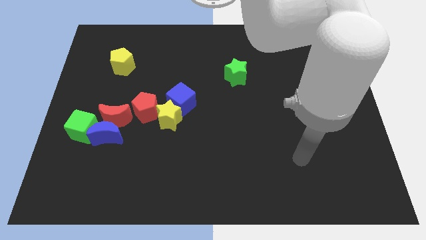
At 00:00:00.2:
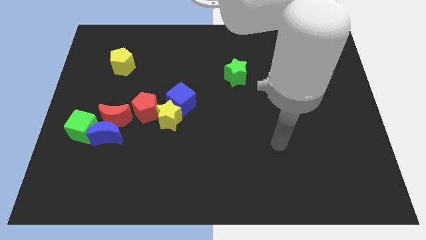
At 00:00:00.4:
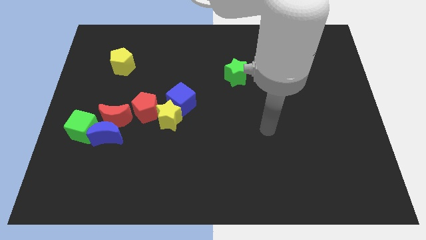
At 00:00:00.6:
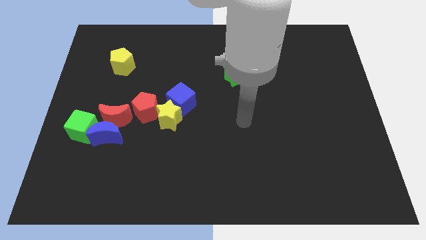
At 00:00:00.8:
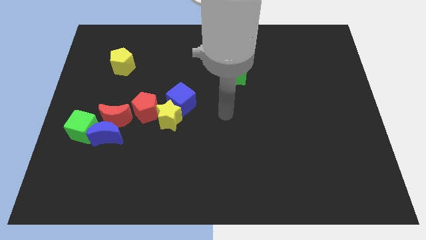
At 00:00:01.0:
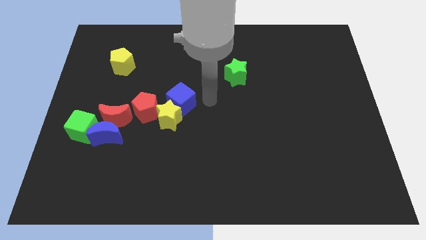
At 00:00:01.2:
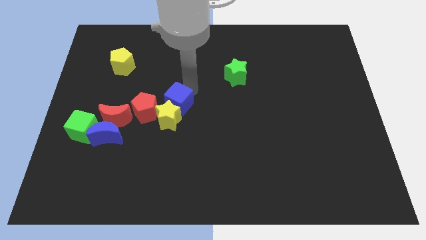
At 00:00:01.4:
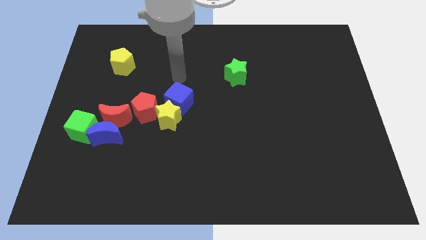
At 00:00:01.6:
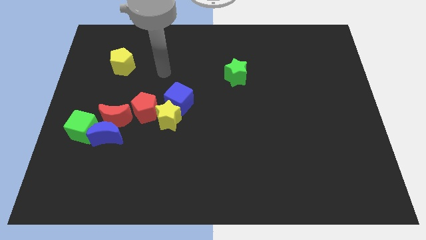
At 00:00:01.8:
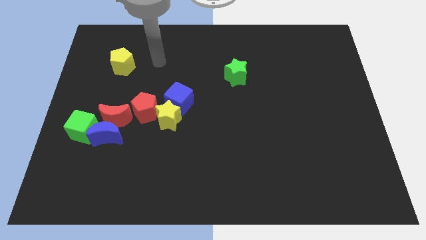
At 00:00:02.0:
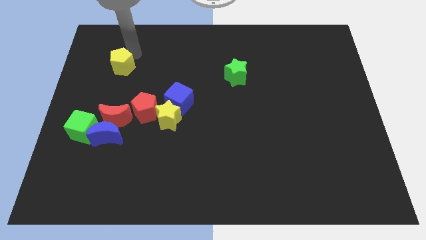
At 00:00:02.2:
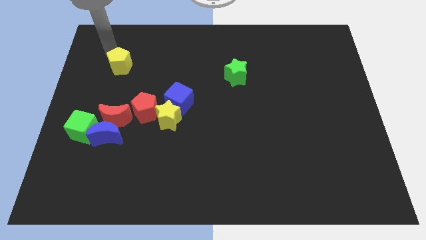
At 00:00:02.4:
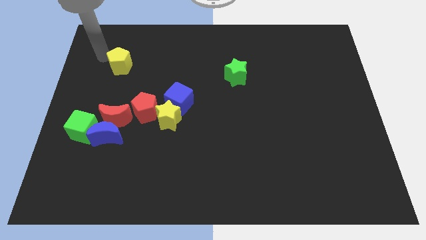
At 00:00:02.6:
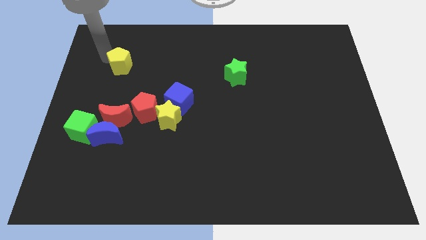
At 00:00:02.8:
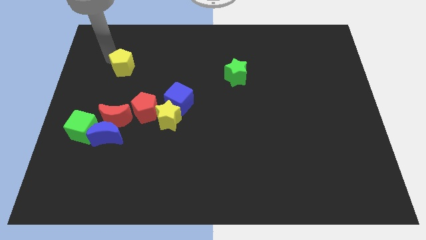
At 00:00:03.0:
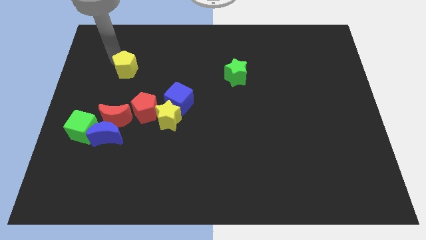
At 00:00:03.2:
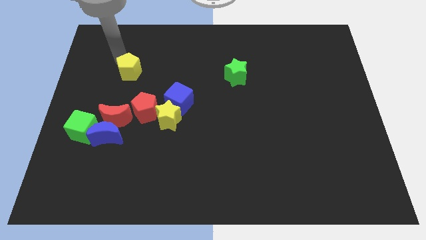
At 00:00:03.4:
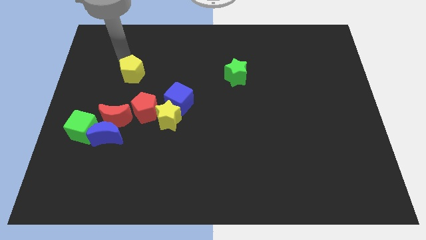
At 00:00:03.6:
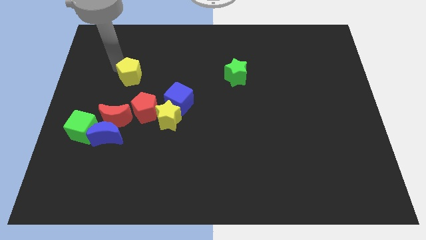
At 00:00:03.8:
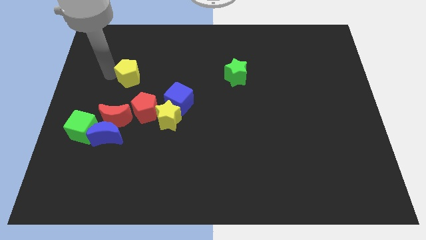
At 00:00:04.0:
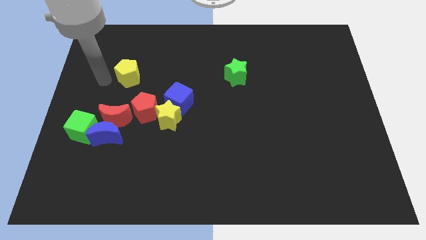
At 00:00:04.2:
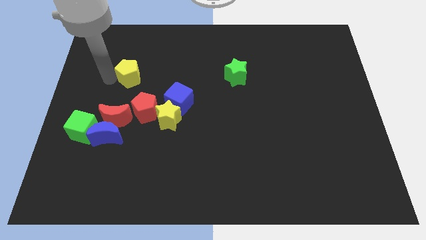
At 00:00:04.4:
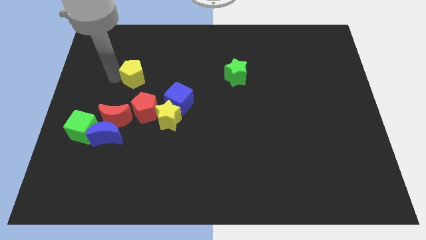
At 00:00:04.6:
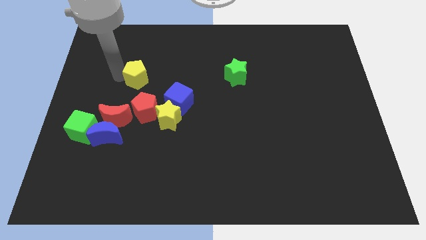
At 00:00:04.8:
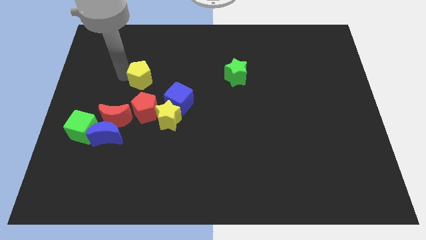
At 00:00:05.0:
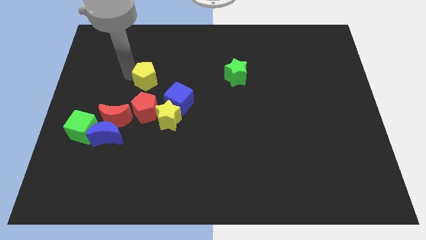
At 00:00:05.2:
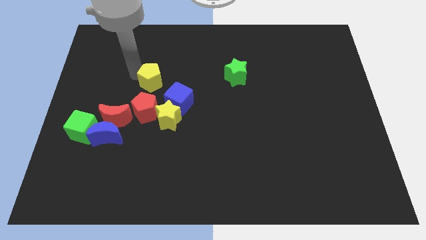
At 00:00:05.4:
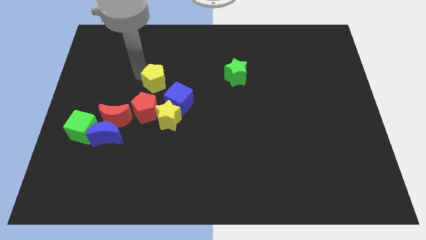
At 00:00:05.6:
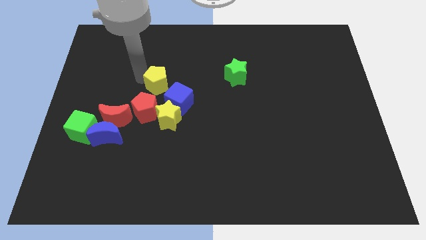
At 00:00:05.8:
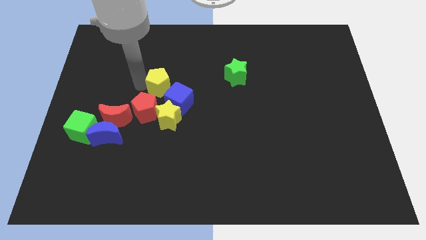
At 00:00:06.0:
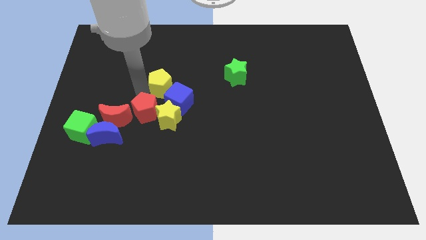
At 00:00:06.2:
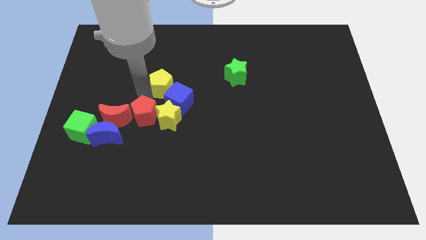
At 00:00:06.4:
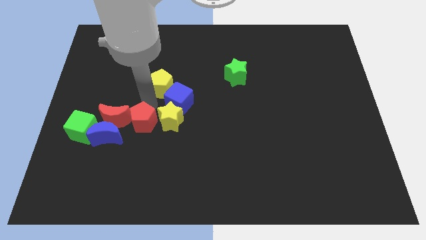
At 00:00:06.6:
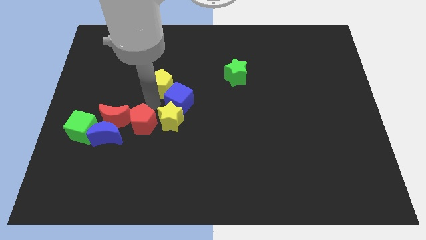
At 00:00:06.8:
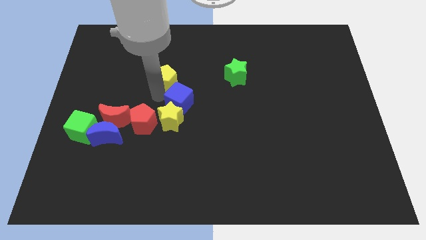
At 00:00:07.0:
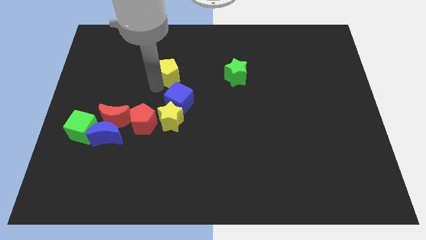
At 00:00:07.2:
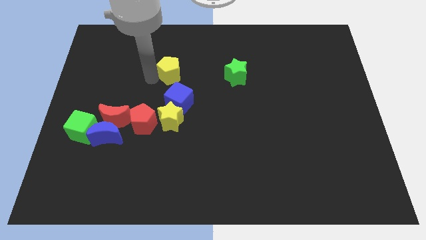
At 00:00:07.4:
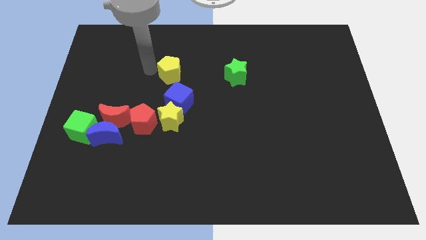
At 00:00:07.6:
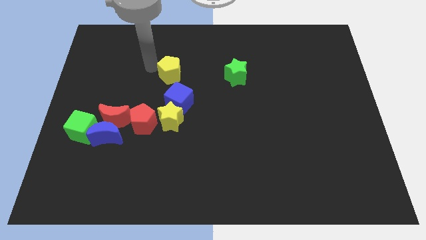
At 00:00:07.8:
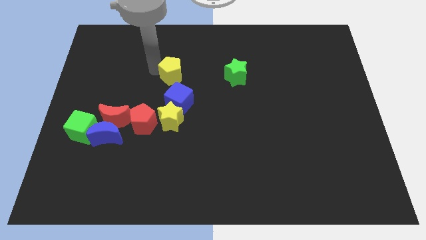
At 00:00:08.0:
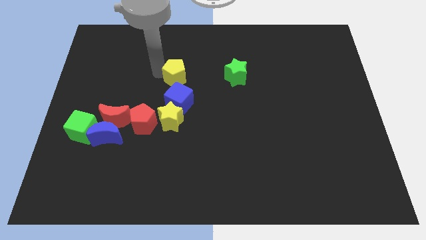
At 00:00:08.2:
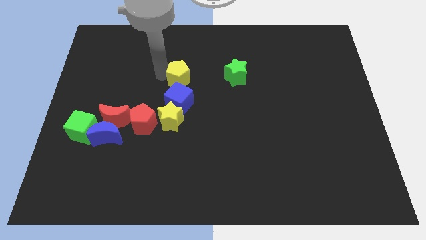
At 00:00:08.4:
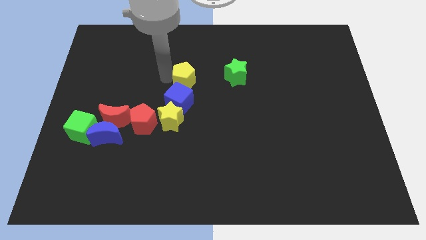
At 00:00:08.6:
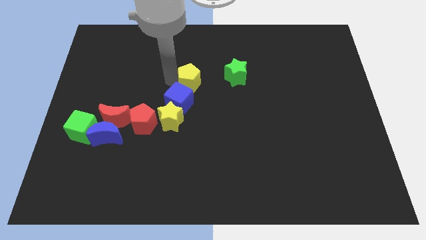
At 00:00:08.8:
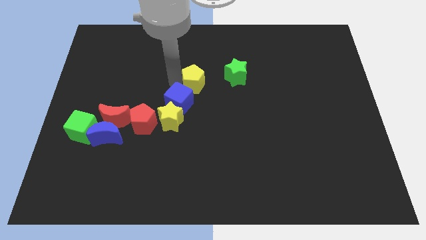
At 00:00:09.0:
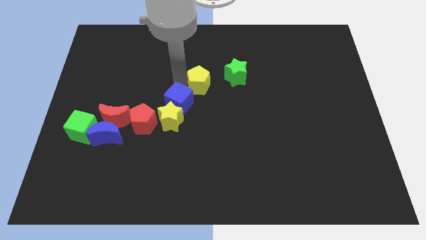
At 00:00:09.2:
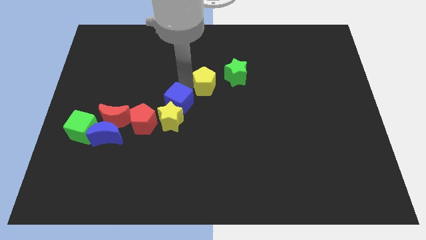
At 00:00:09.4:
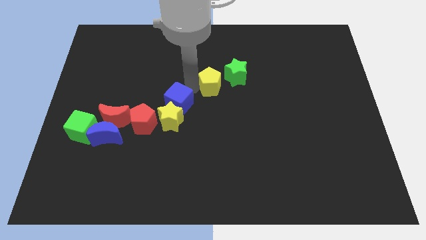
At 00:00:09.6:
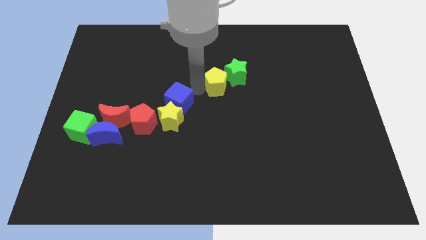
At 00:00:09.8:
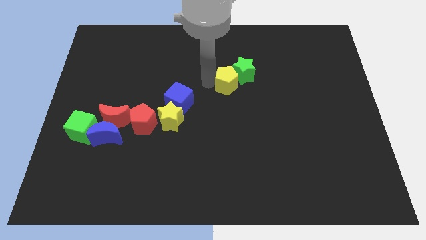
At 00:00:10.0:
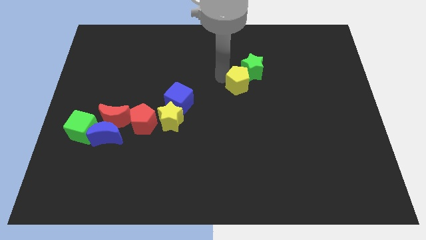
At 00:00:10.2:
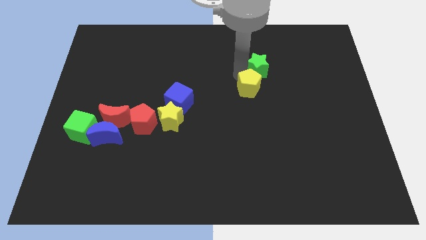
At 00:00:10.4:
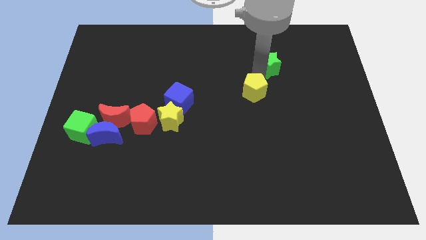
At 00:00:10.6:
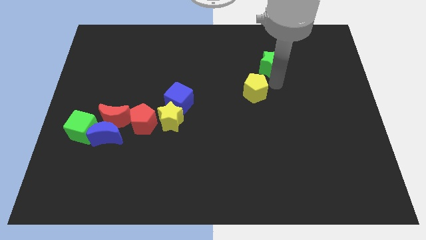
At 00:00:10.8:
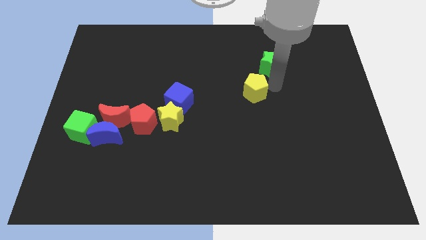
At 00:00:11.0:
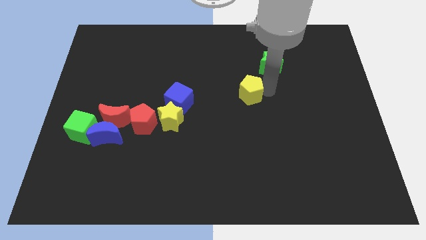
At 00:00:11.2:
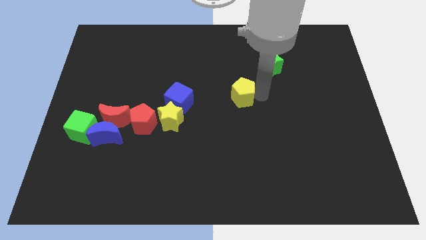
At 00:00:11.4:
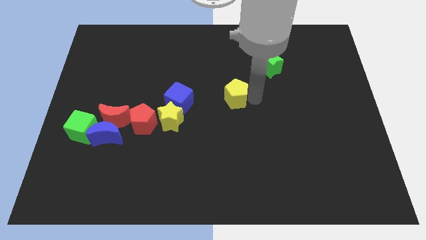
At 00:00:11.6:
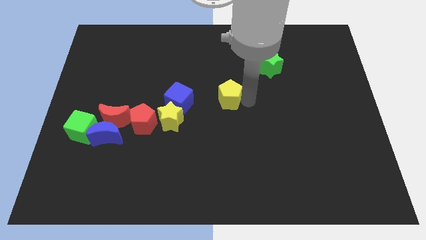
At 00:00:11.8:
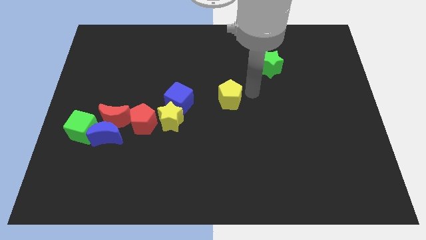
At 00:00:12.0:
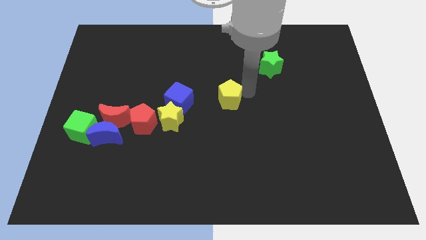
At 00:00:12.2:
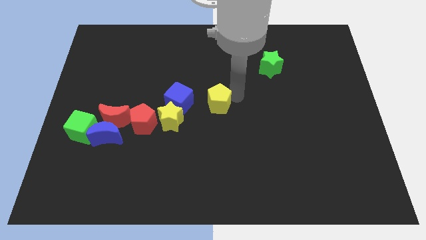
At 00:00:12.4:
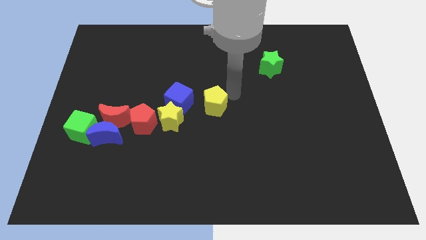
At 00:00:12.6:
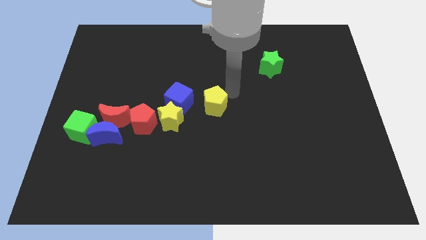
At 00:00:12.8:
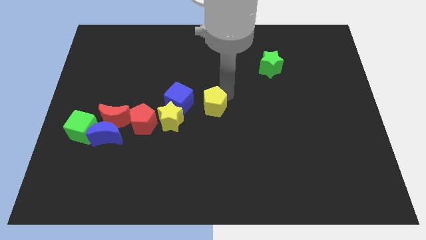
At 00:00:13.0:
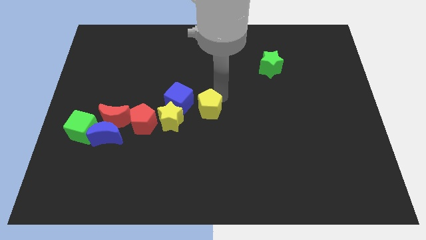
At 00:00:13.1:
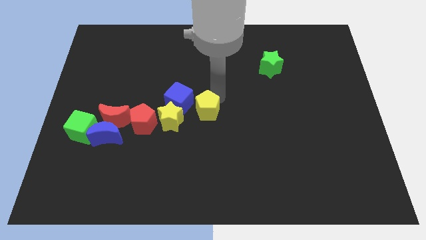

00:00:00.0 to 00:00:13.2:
put the yellow pentagon right of the red pentagon

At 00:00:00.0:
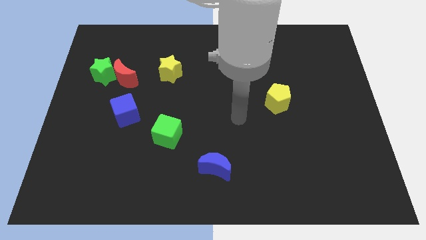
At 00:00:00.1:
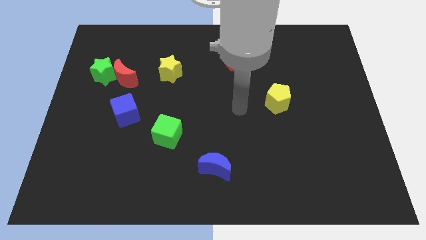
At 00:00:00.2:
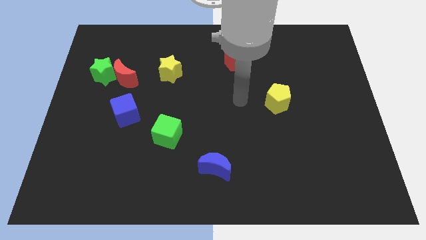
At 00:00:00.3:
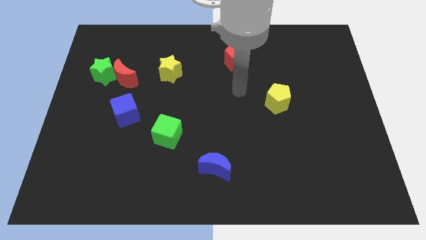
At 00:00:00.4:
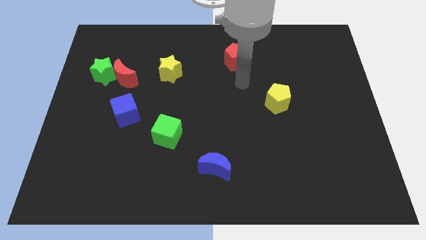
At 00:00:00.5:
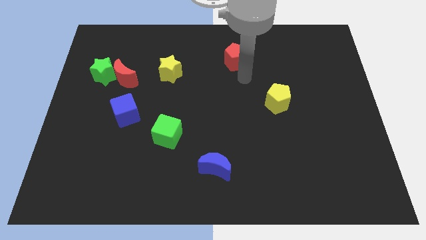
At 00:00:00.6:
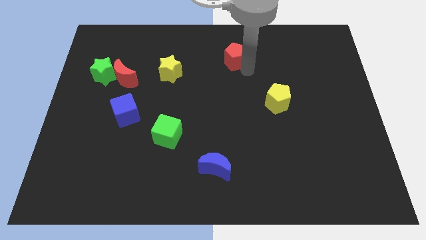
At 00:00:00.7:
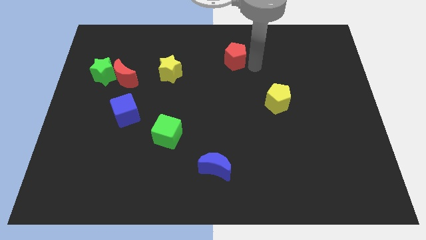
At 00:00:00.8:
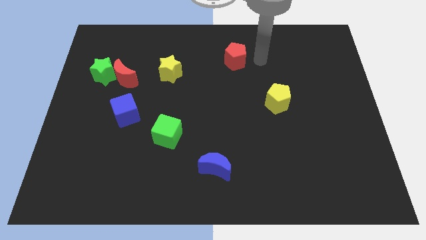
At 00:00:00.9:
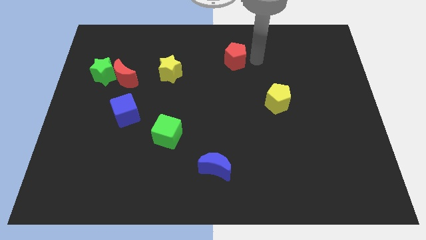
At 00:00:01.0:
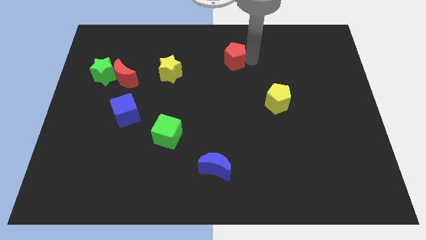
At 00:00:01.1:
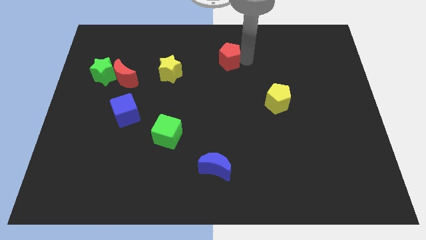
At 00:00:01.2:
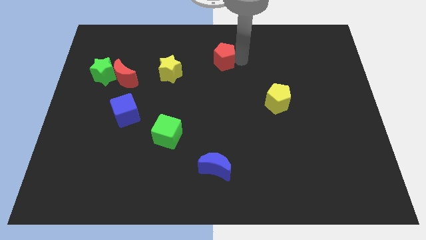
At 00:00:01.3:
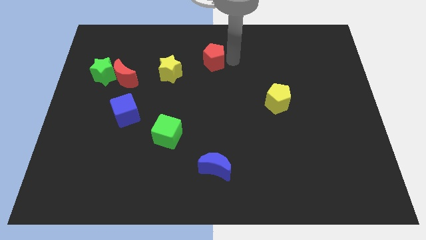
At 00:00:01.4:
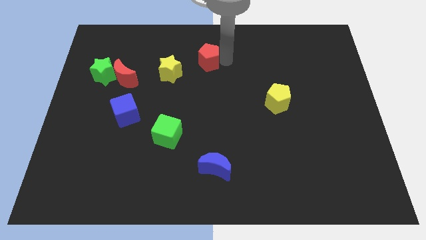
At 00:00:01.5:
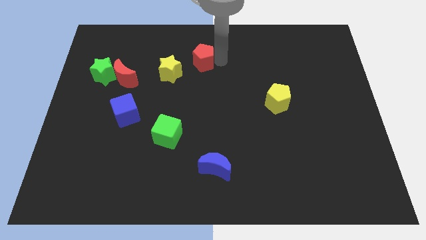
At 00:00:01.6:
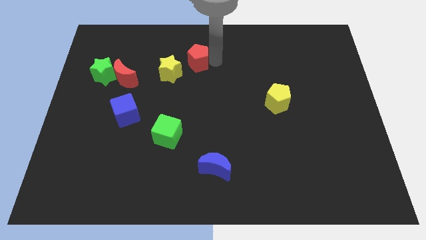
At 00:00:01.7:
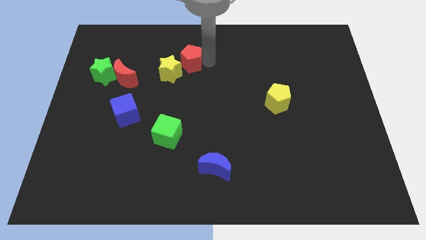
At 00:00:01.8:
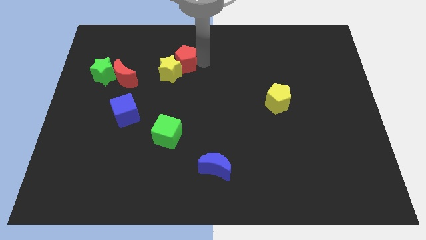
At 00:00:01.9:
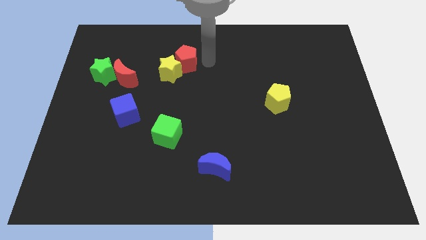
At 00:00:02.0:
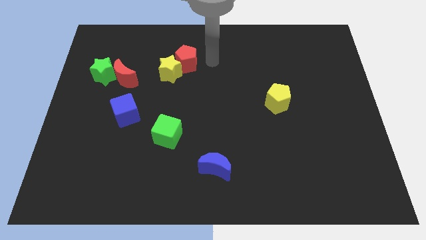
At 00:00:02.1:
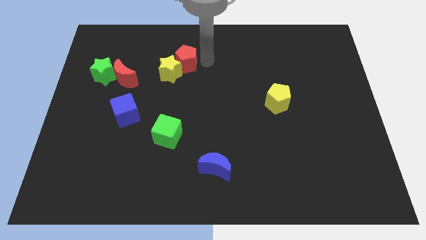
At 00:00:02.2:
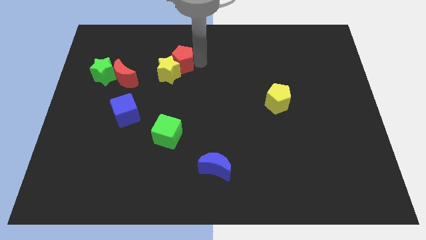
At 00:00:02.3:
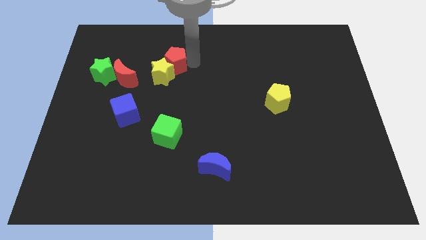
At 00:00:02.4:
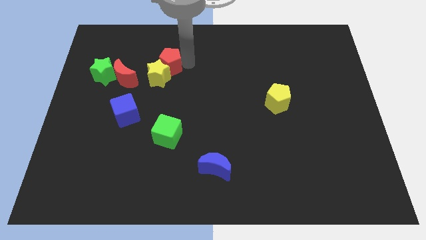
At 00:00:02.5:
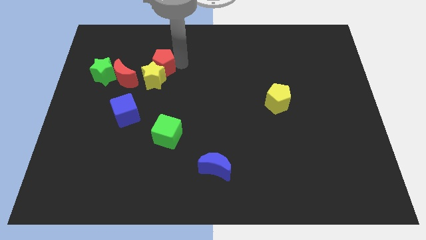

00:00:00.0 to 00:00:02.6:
put the red pentagon to the right of the green star
